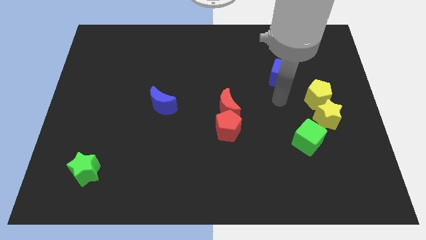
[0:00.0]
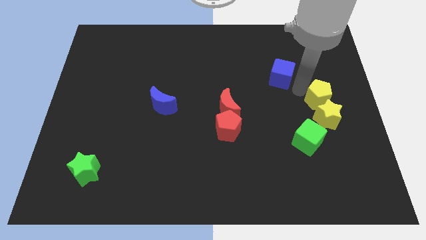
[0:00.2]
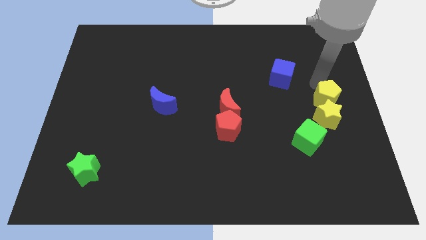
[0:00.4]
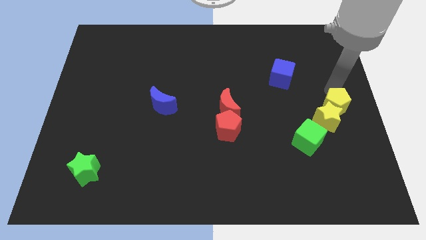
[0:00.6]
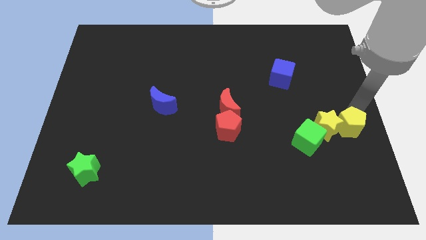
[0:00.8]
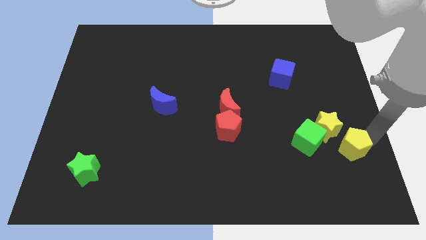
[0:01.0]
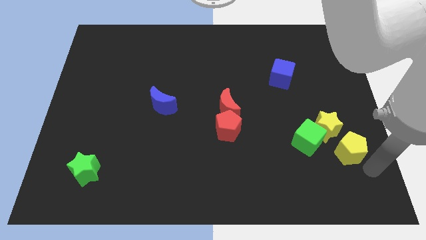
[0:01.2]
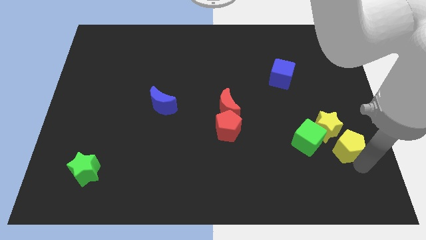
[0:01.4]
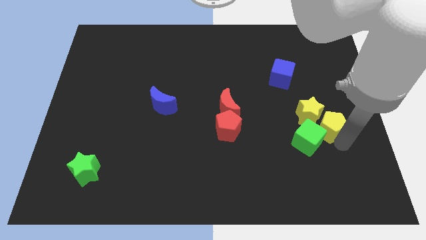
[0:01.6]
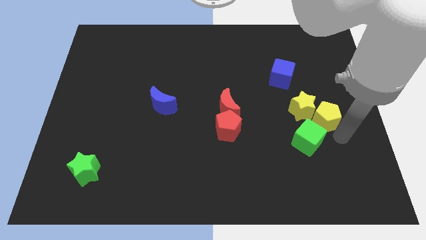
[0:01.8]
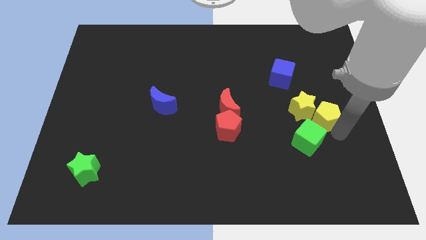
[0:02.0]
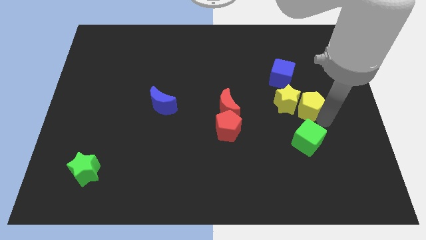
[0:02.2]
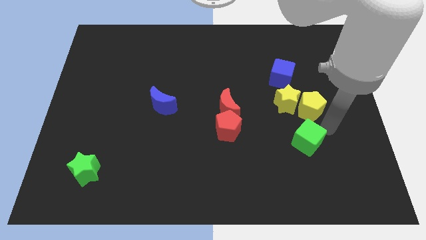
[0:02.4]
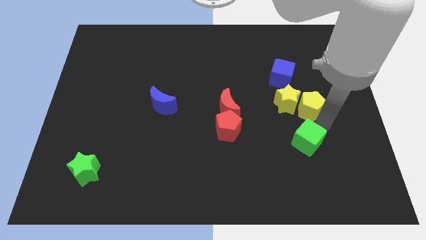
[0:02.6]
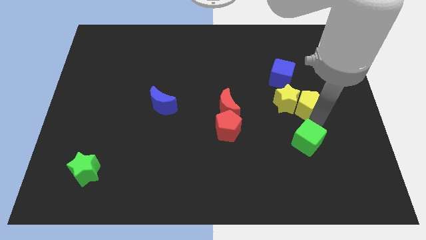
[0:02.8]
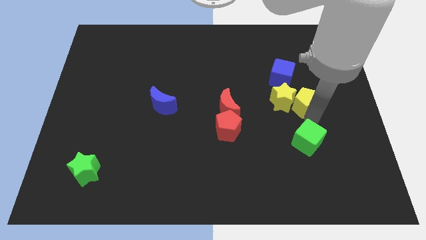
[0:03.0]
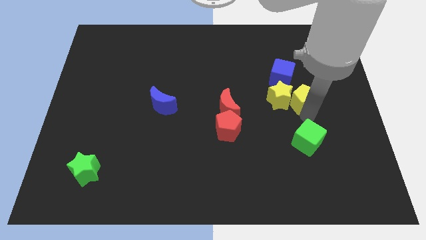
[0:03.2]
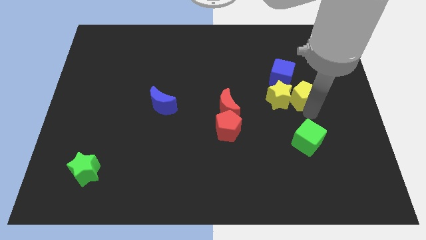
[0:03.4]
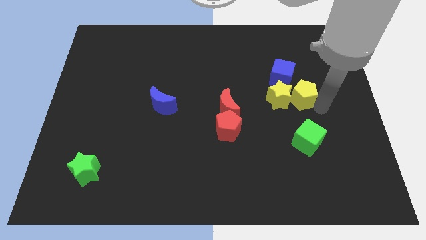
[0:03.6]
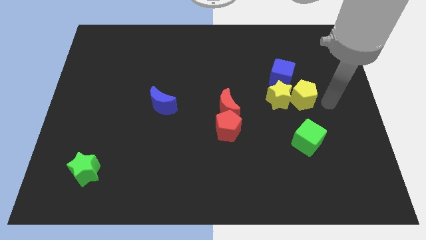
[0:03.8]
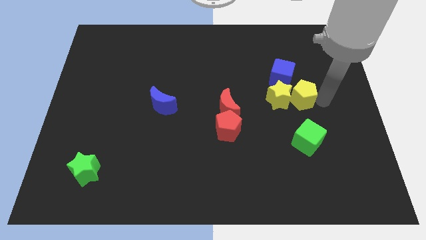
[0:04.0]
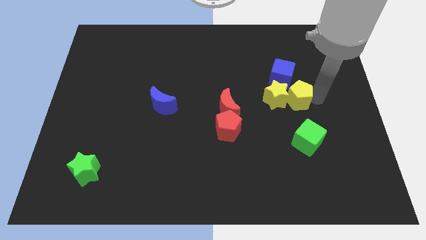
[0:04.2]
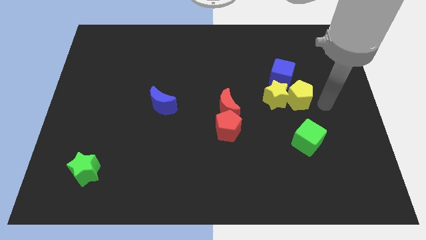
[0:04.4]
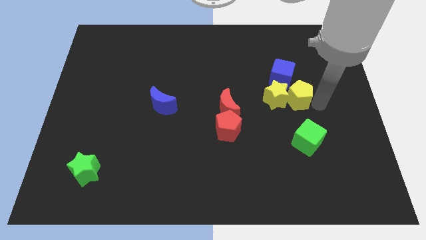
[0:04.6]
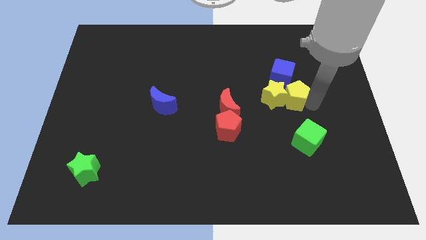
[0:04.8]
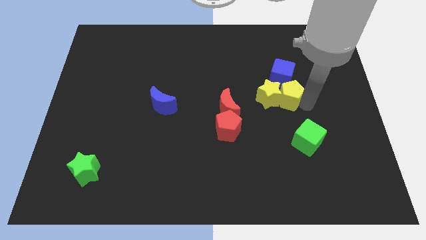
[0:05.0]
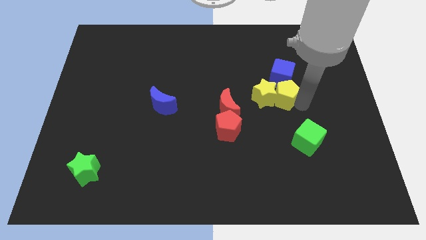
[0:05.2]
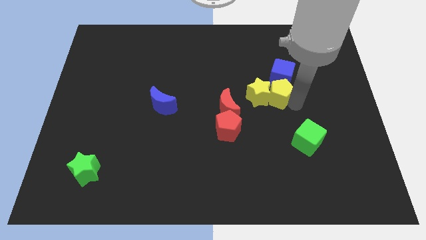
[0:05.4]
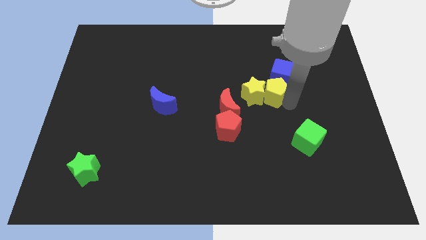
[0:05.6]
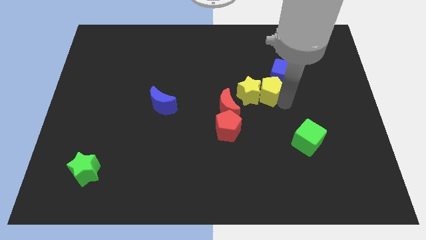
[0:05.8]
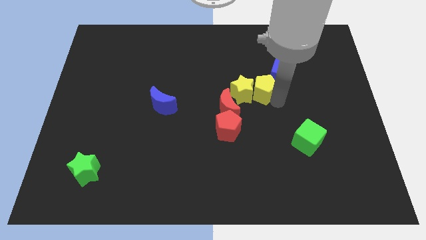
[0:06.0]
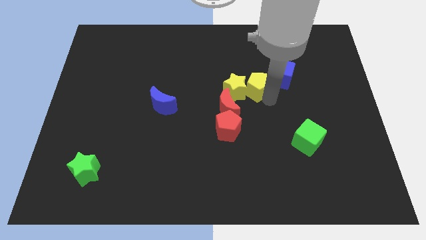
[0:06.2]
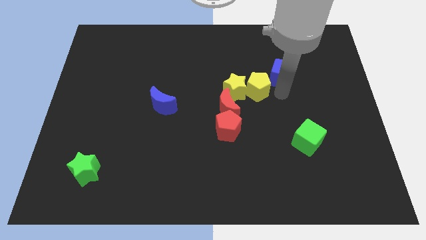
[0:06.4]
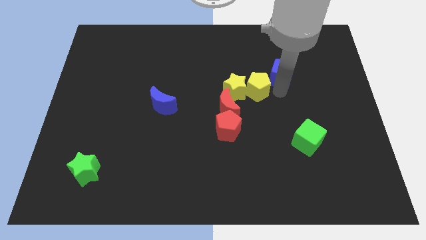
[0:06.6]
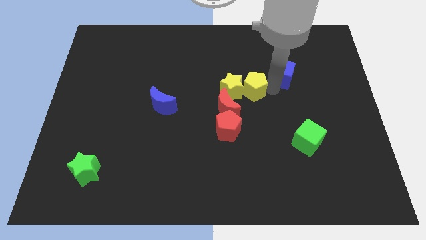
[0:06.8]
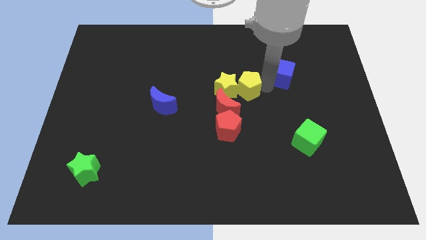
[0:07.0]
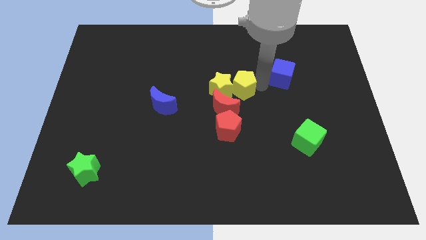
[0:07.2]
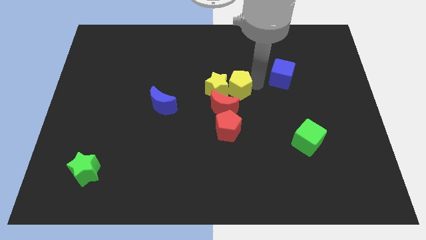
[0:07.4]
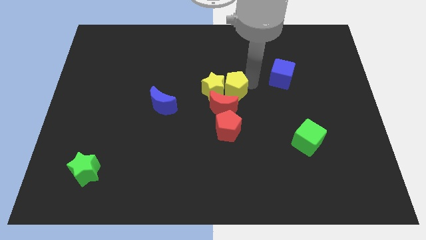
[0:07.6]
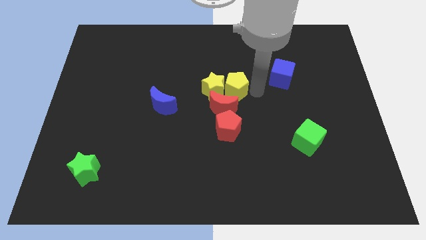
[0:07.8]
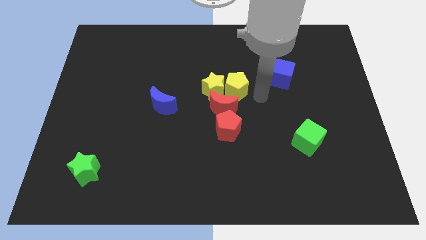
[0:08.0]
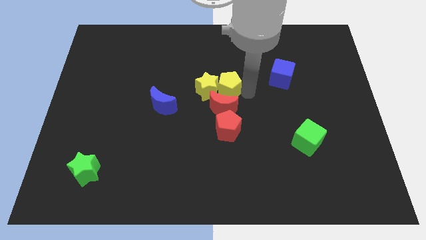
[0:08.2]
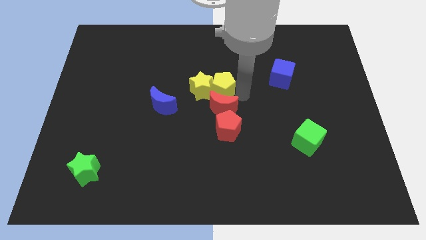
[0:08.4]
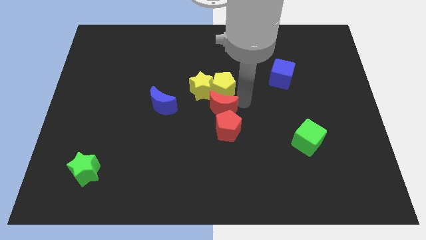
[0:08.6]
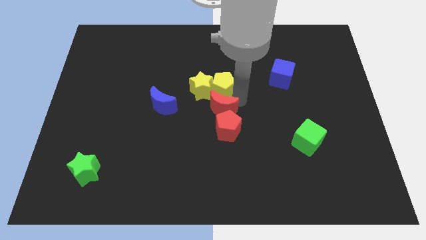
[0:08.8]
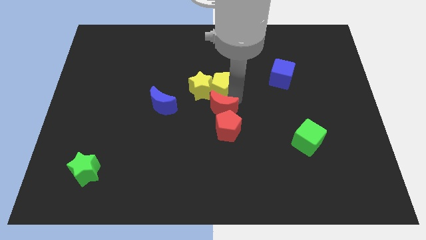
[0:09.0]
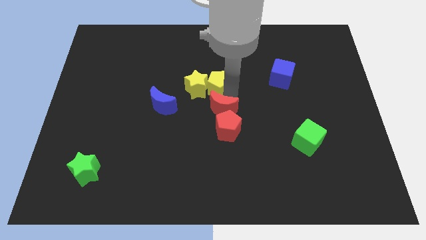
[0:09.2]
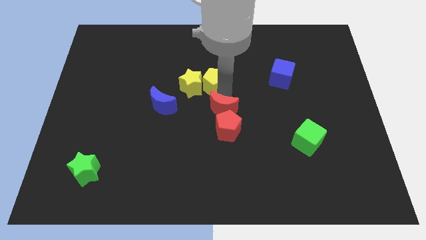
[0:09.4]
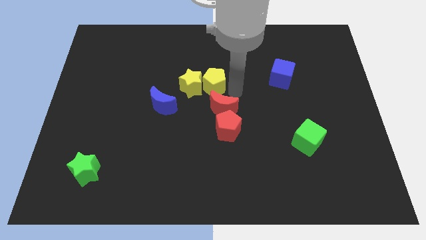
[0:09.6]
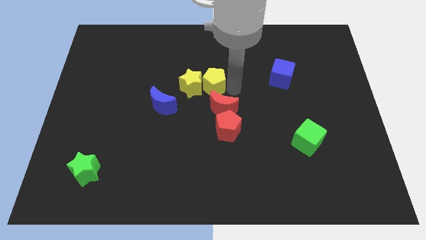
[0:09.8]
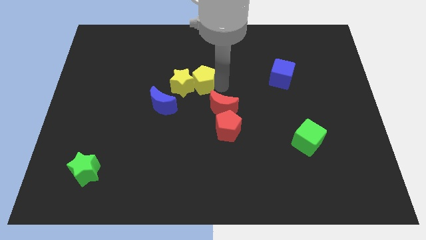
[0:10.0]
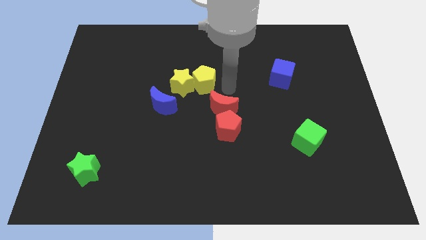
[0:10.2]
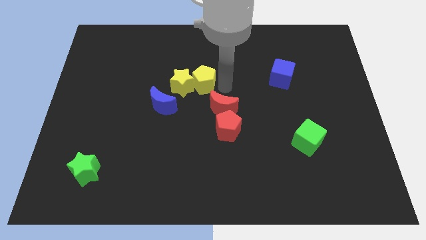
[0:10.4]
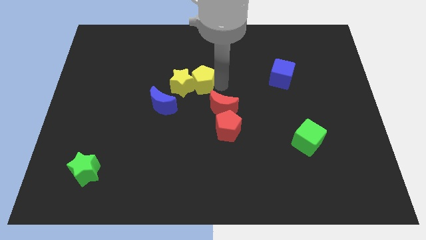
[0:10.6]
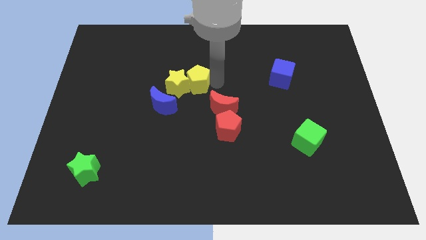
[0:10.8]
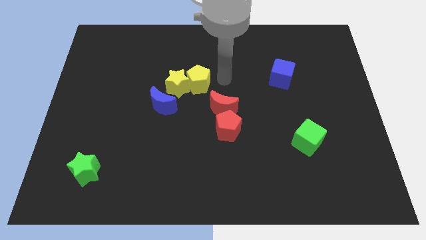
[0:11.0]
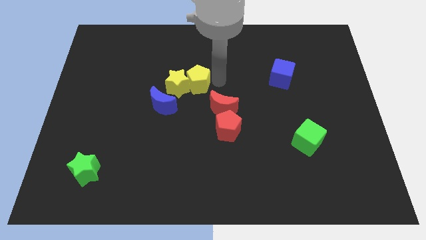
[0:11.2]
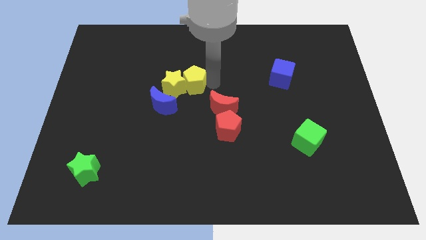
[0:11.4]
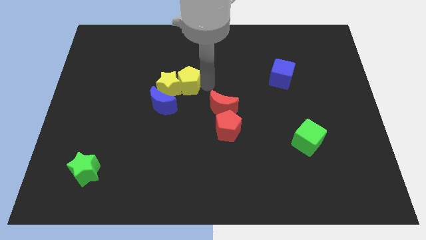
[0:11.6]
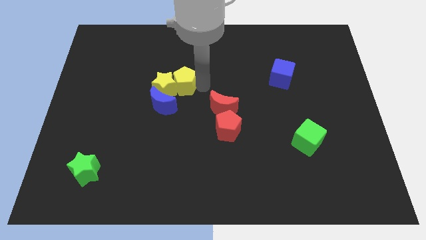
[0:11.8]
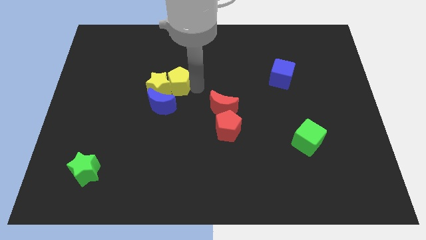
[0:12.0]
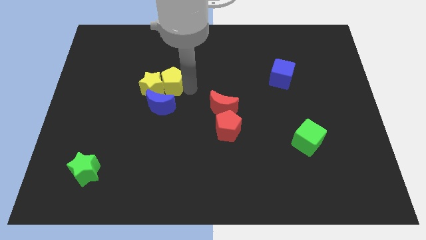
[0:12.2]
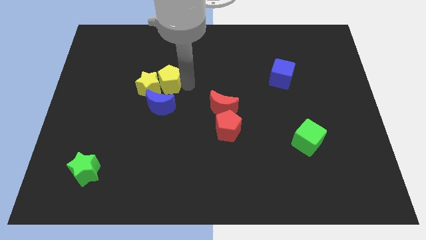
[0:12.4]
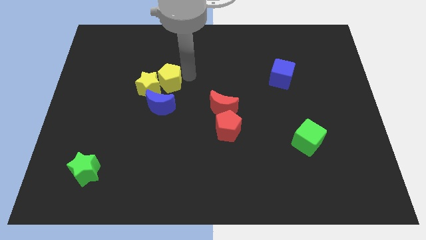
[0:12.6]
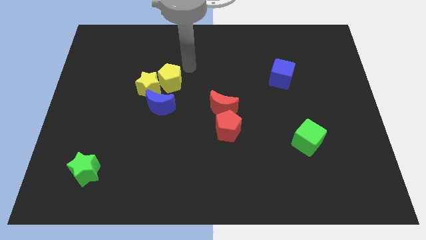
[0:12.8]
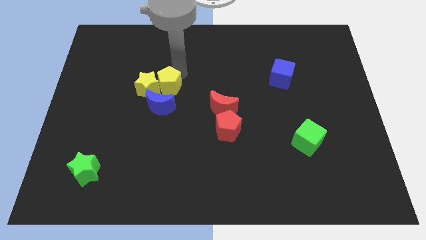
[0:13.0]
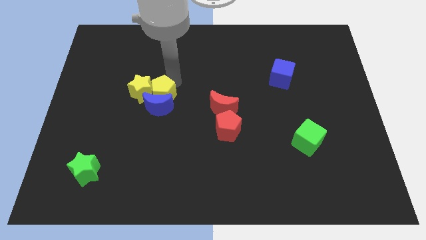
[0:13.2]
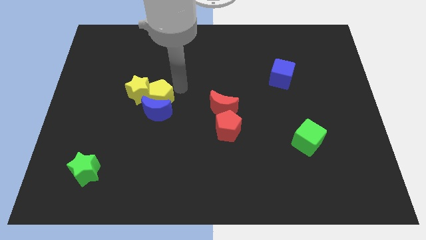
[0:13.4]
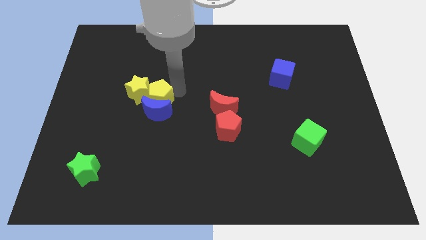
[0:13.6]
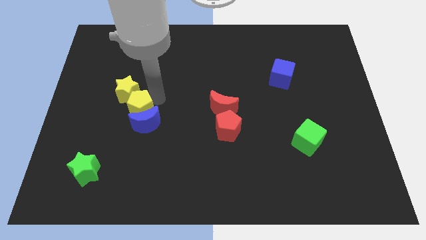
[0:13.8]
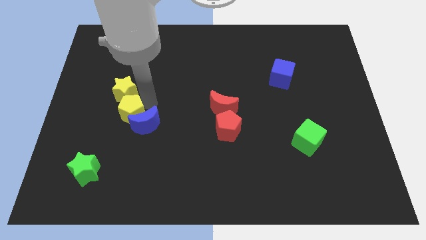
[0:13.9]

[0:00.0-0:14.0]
move the yellow pentagon just left of the blue moon

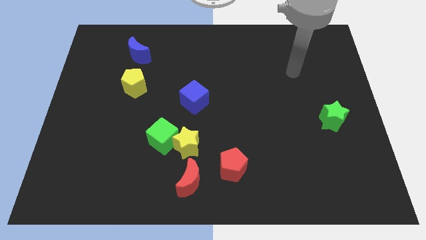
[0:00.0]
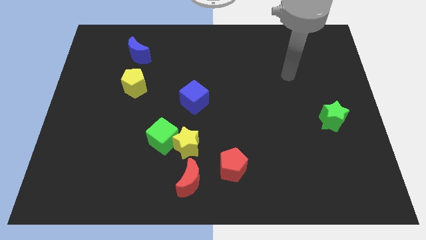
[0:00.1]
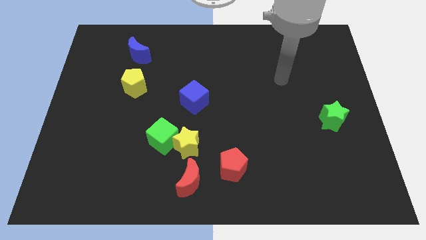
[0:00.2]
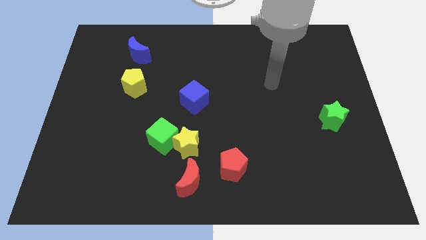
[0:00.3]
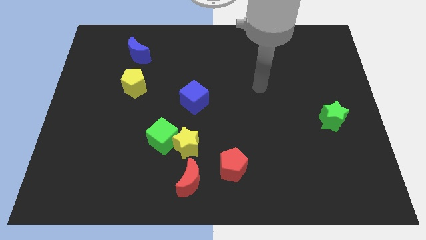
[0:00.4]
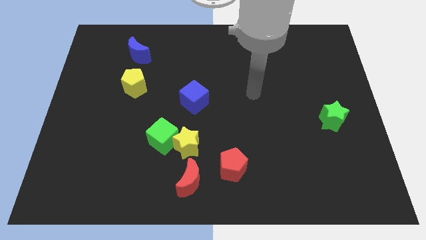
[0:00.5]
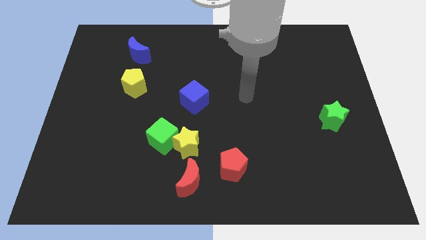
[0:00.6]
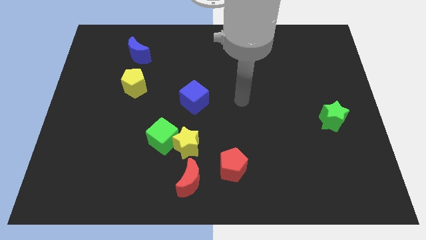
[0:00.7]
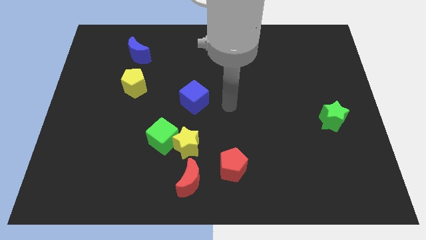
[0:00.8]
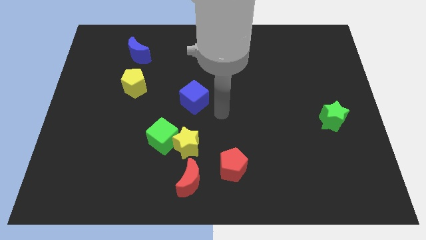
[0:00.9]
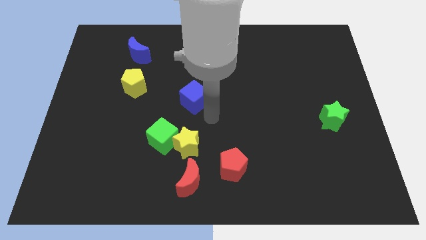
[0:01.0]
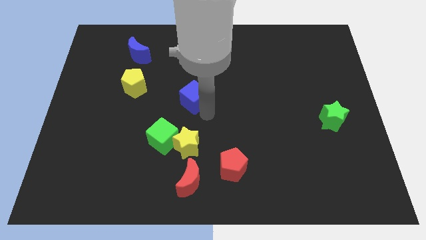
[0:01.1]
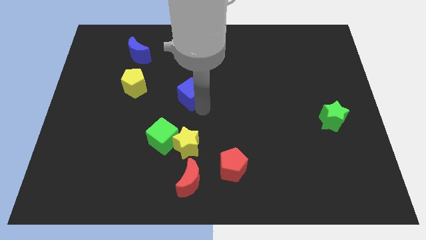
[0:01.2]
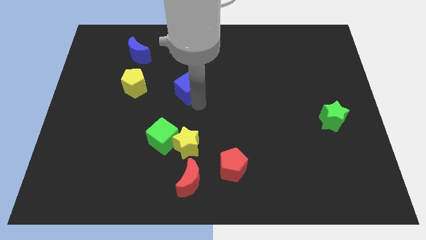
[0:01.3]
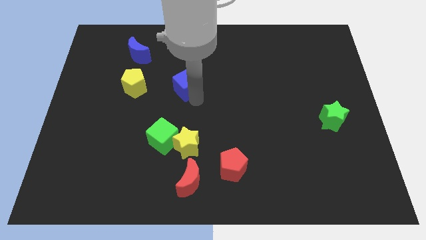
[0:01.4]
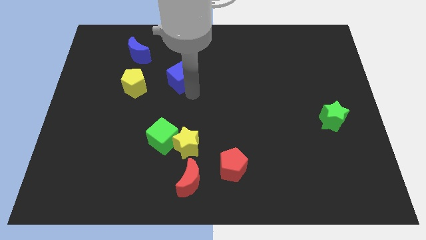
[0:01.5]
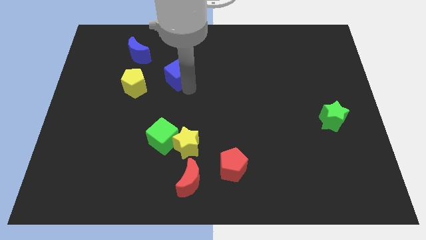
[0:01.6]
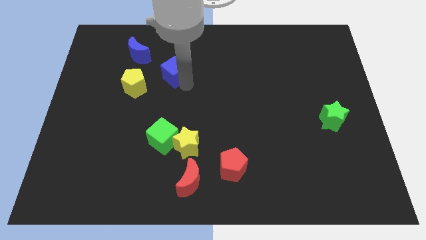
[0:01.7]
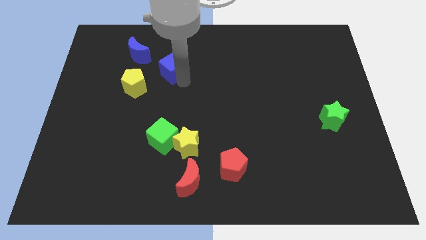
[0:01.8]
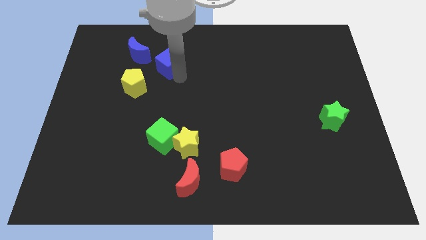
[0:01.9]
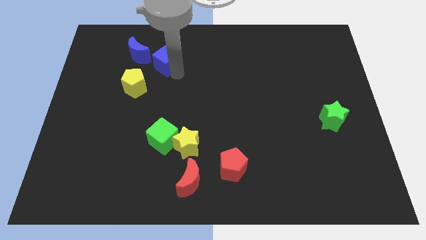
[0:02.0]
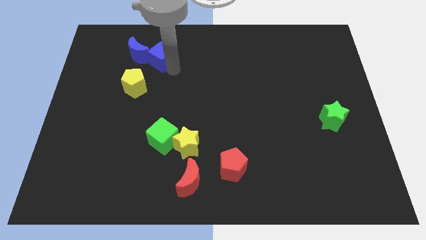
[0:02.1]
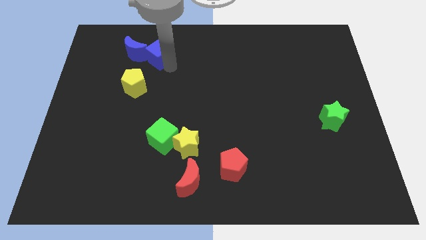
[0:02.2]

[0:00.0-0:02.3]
push the blue cube to the top side of the yellow pentagon
